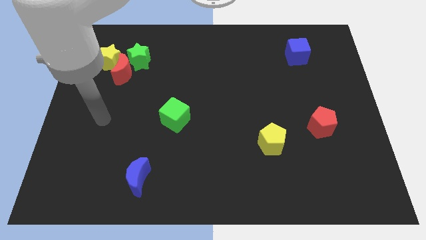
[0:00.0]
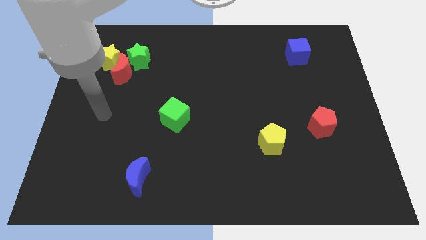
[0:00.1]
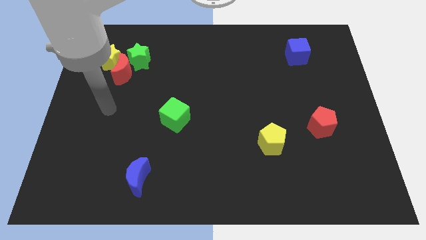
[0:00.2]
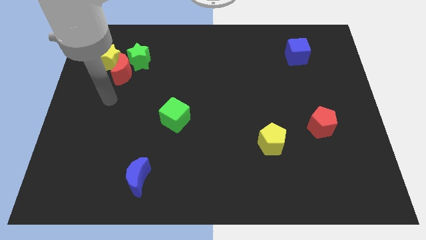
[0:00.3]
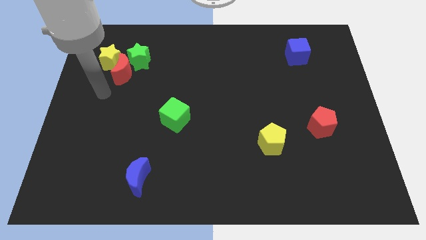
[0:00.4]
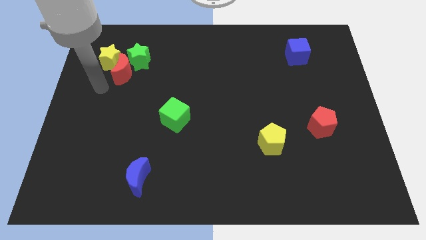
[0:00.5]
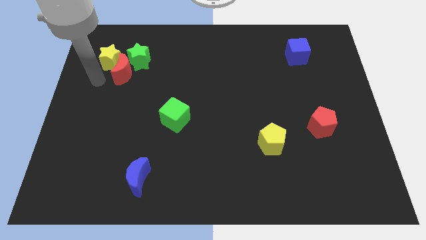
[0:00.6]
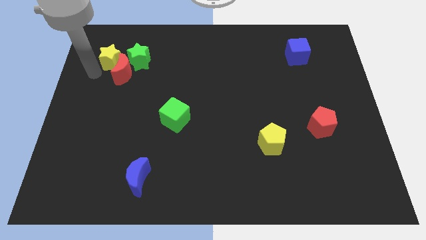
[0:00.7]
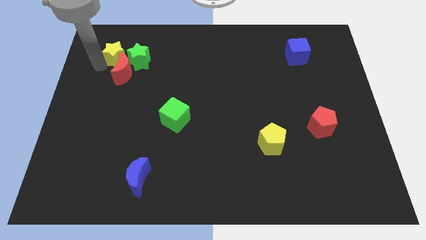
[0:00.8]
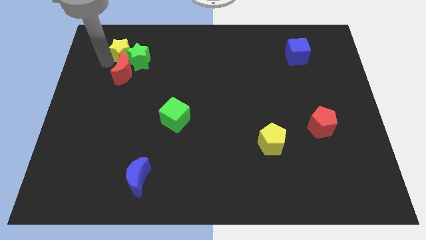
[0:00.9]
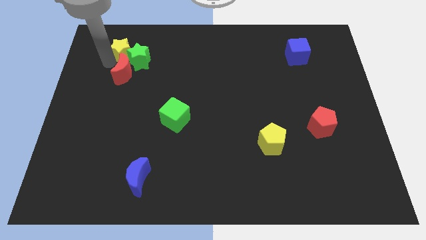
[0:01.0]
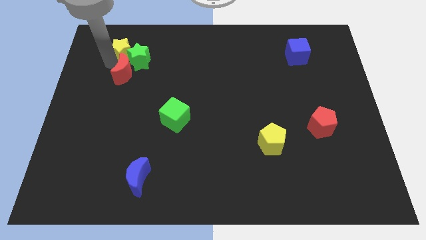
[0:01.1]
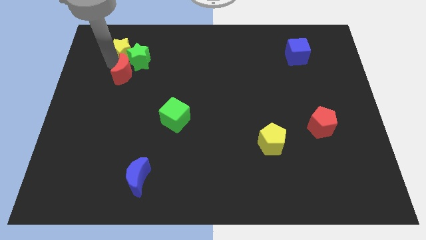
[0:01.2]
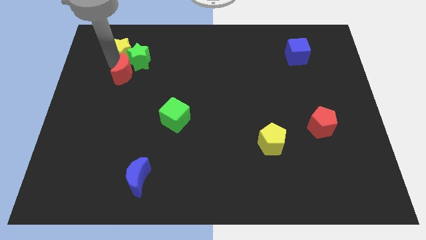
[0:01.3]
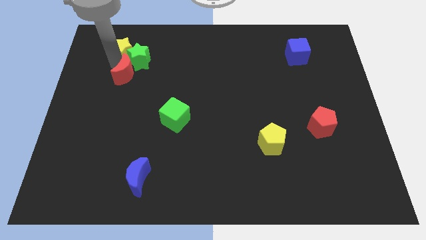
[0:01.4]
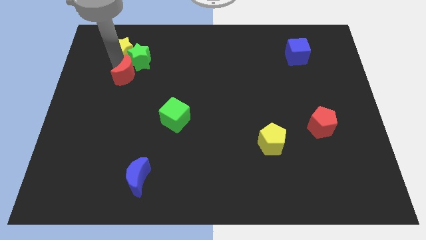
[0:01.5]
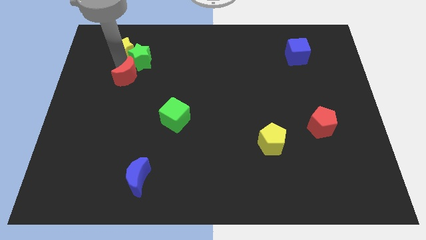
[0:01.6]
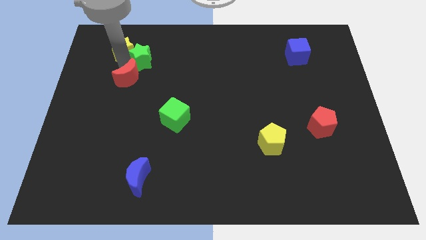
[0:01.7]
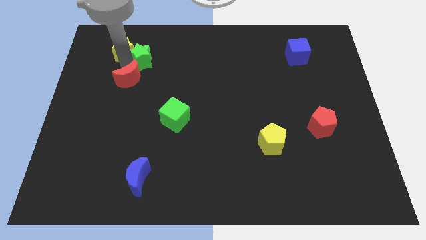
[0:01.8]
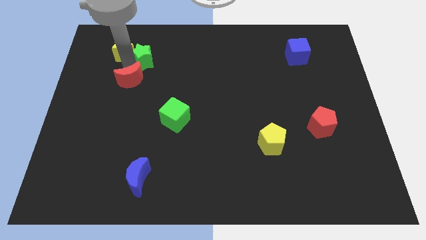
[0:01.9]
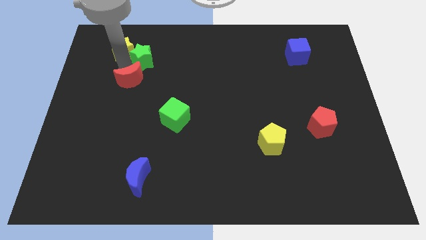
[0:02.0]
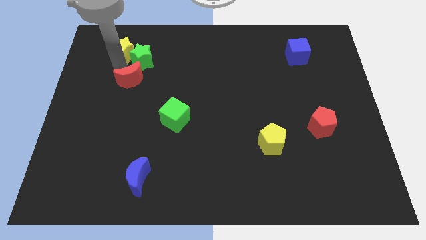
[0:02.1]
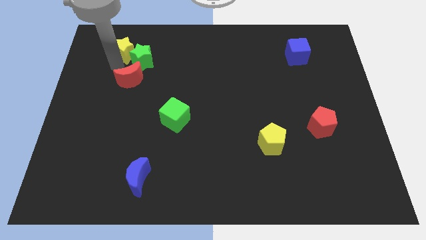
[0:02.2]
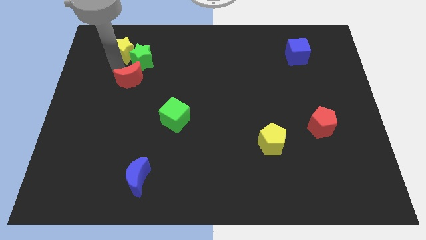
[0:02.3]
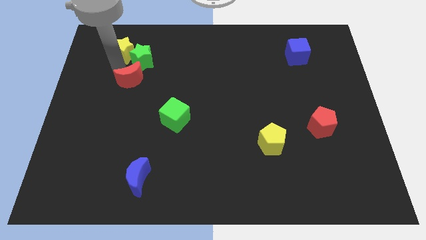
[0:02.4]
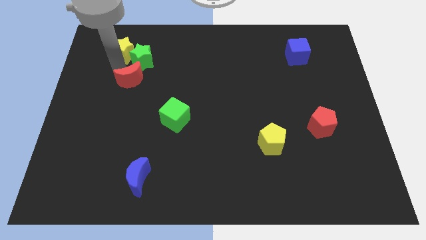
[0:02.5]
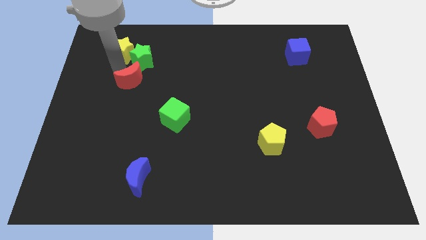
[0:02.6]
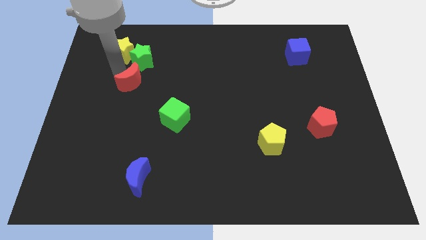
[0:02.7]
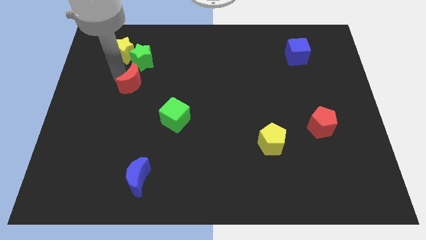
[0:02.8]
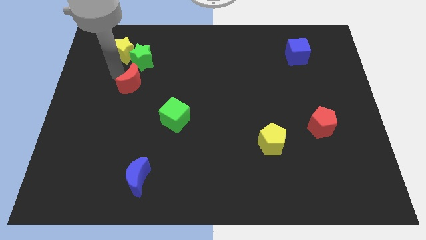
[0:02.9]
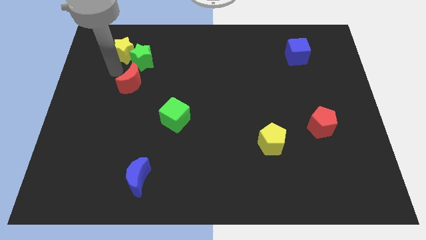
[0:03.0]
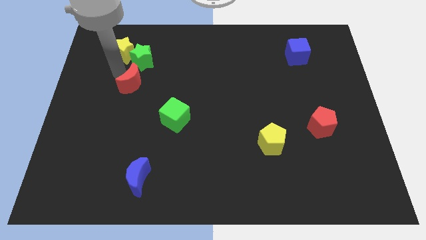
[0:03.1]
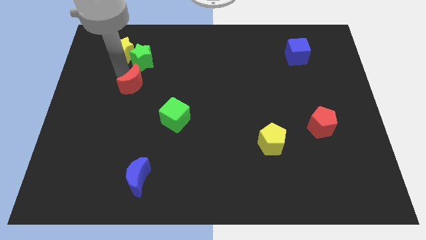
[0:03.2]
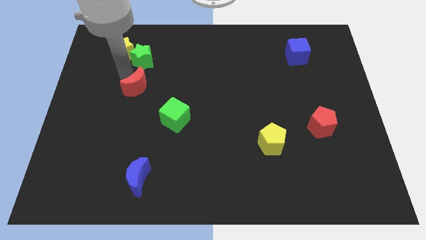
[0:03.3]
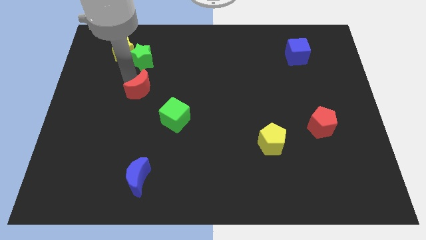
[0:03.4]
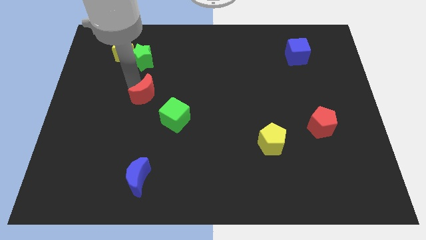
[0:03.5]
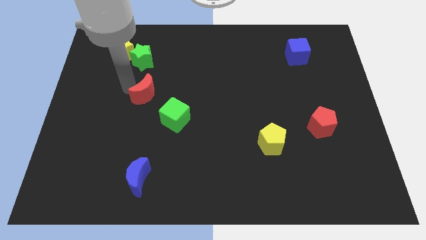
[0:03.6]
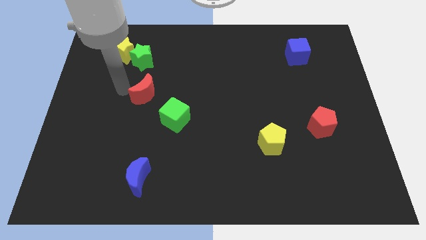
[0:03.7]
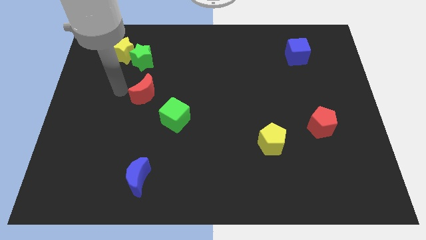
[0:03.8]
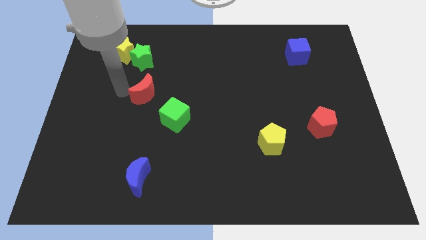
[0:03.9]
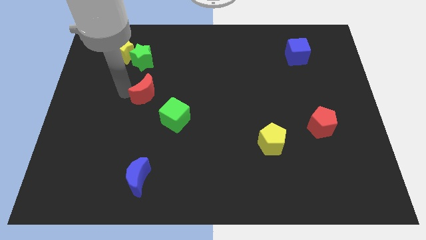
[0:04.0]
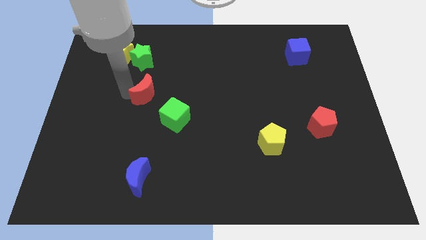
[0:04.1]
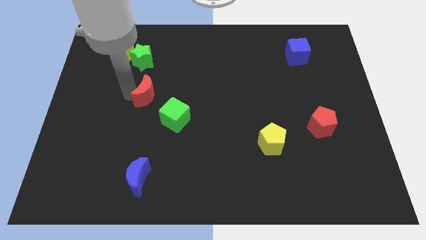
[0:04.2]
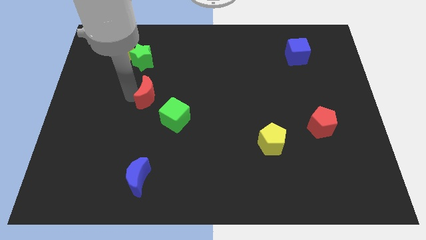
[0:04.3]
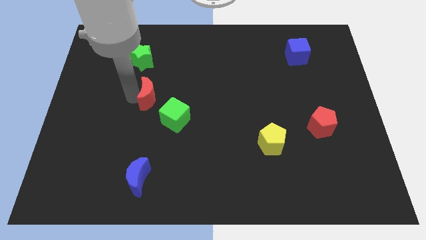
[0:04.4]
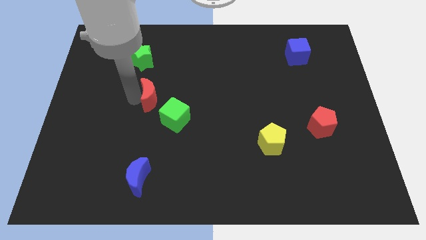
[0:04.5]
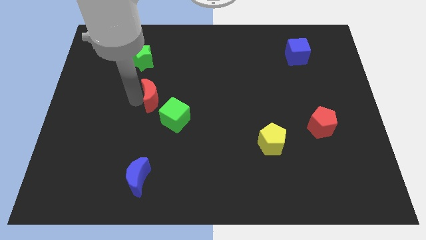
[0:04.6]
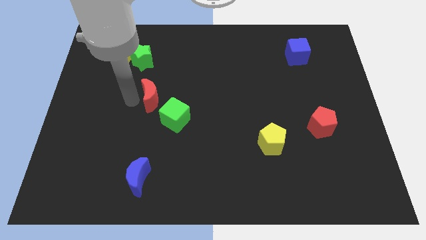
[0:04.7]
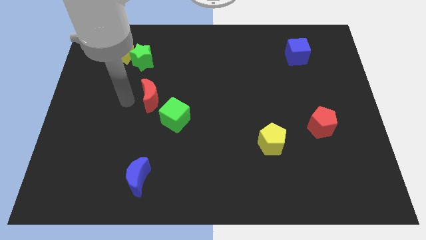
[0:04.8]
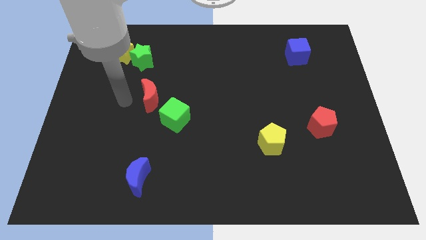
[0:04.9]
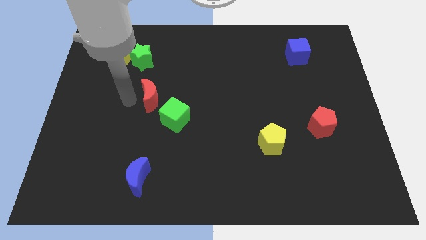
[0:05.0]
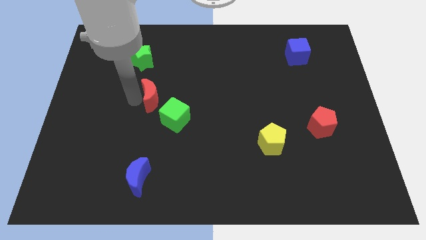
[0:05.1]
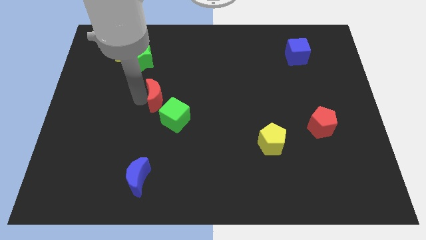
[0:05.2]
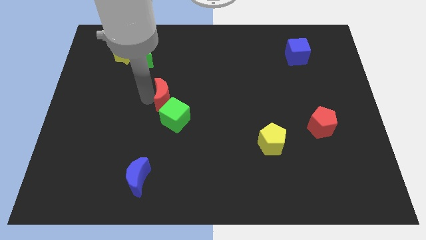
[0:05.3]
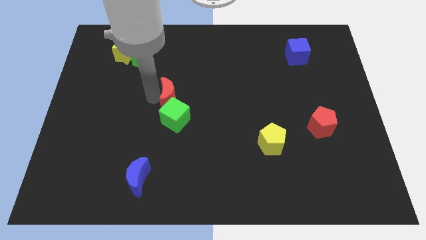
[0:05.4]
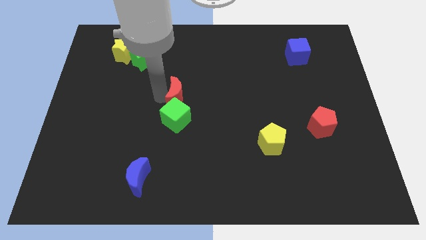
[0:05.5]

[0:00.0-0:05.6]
slide the red moon diagonally up and to the right of the green cube

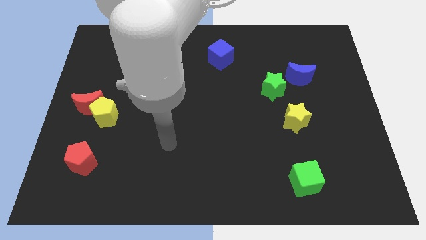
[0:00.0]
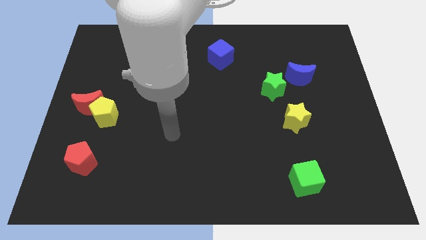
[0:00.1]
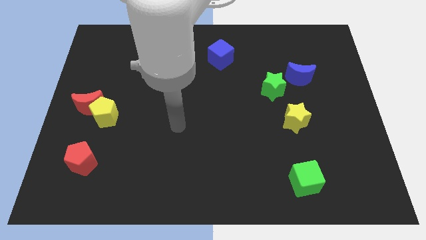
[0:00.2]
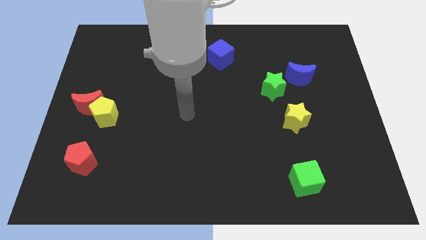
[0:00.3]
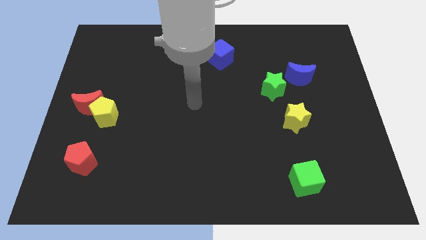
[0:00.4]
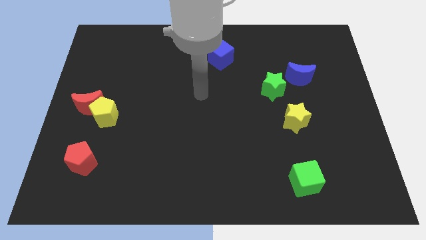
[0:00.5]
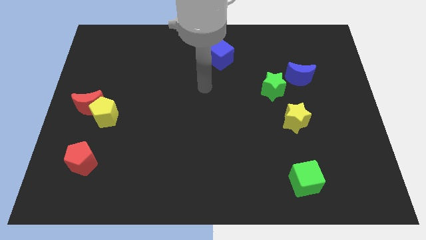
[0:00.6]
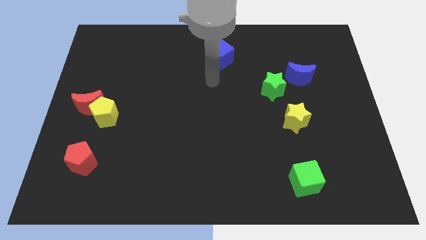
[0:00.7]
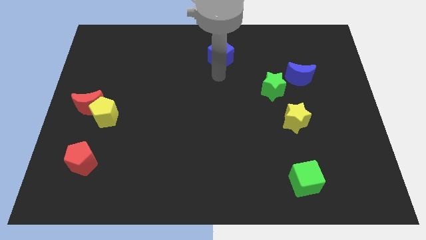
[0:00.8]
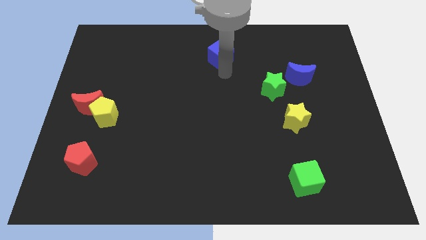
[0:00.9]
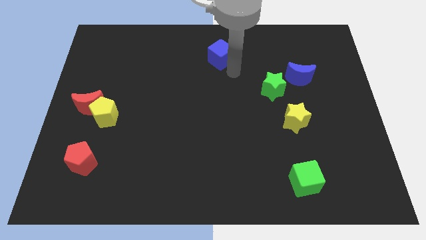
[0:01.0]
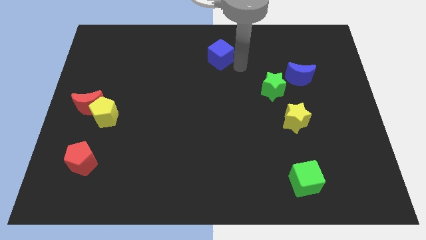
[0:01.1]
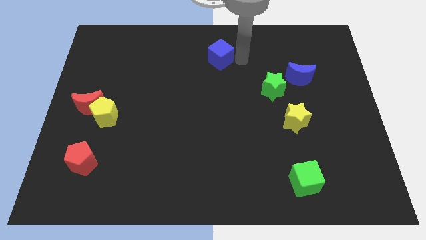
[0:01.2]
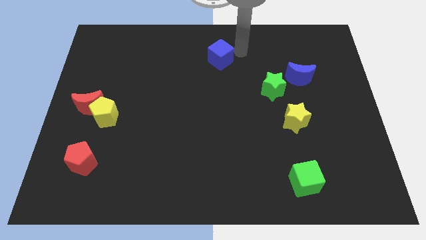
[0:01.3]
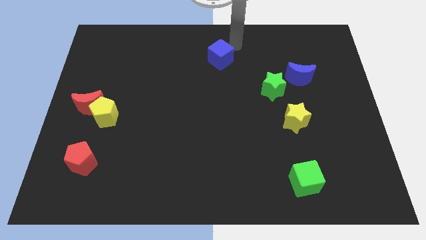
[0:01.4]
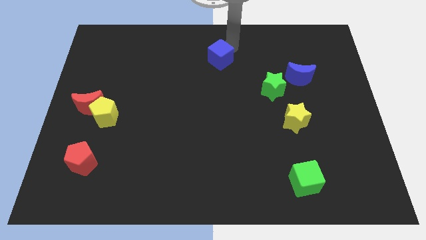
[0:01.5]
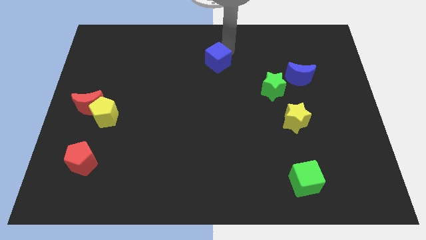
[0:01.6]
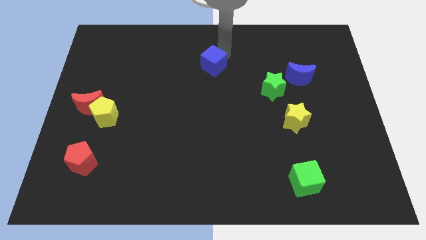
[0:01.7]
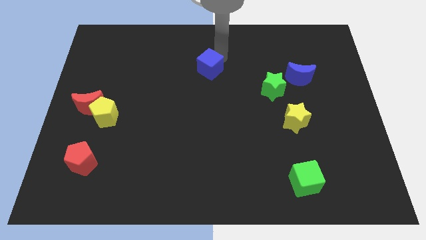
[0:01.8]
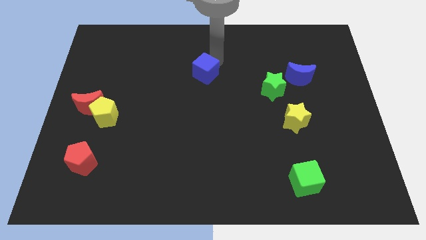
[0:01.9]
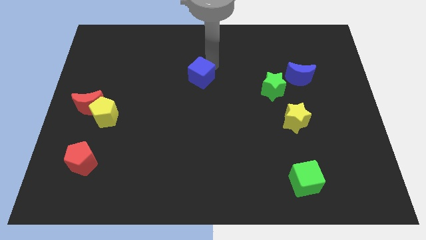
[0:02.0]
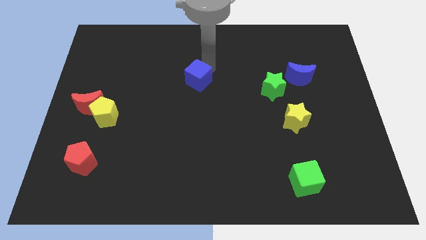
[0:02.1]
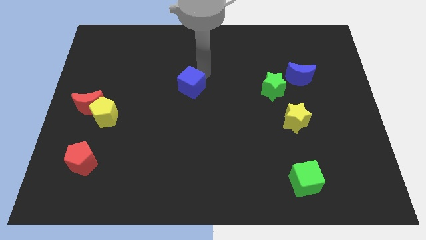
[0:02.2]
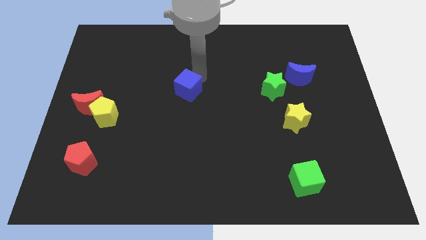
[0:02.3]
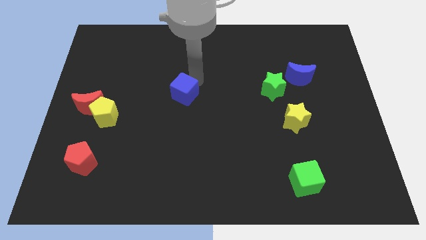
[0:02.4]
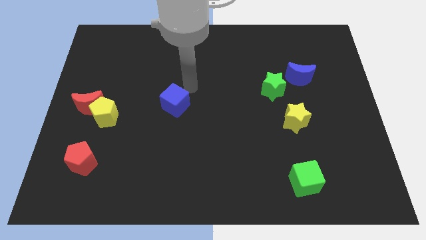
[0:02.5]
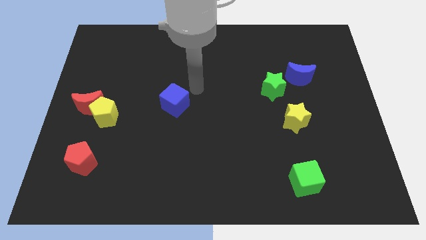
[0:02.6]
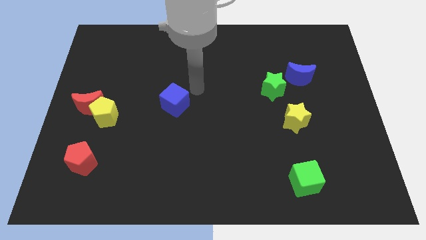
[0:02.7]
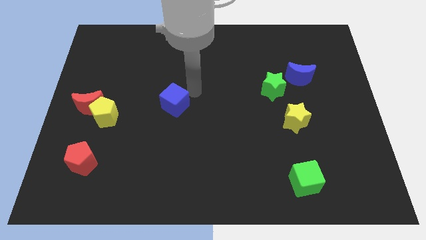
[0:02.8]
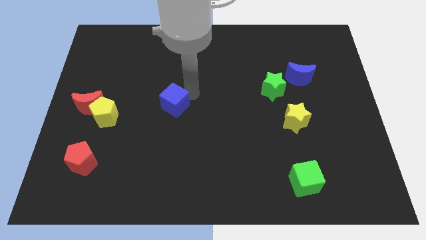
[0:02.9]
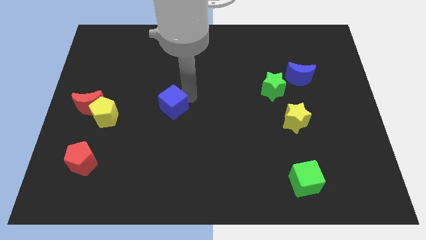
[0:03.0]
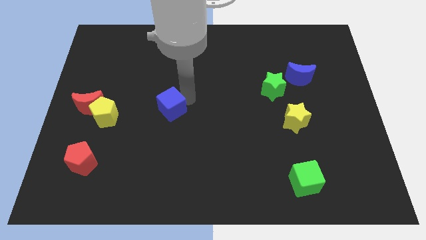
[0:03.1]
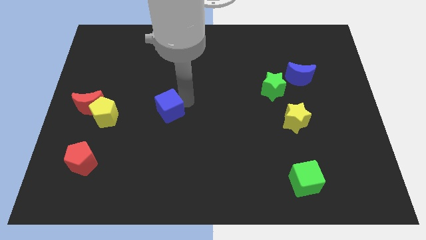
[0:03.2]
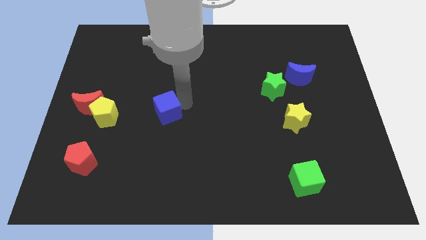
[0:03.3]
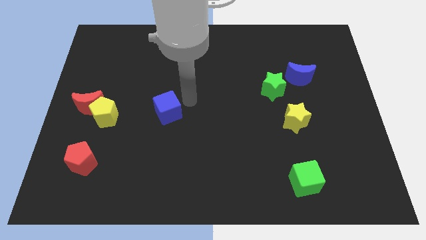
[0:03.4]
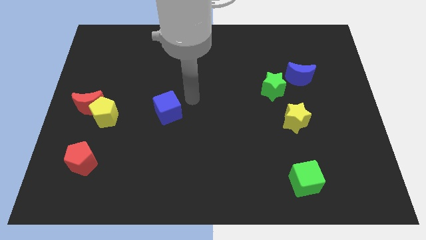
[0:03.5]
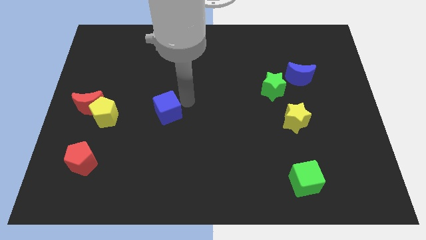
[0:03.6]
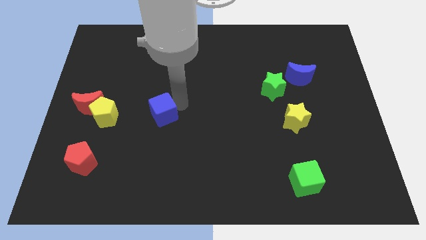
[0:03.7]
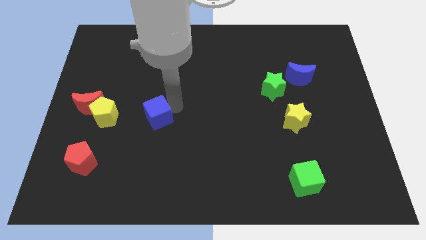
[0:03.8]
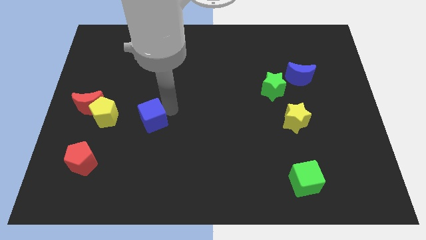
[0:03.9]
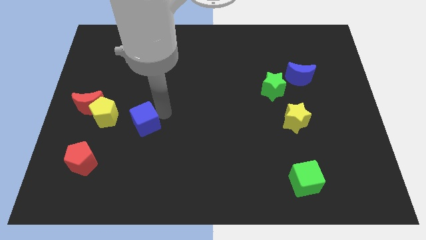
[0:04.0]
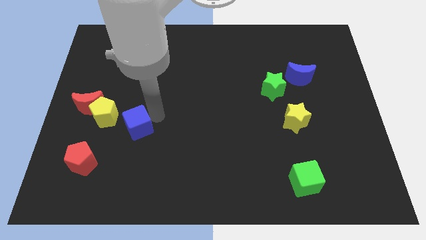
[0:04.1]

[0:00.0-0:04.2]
move the blue cube to the bottom right of the yellow pentagon
